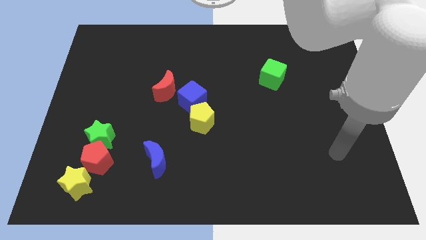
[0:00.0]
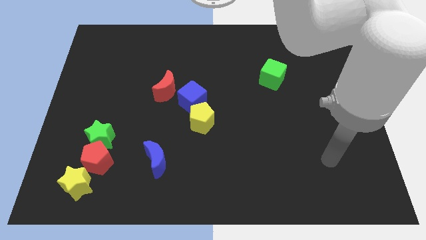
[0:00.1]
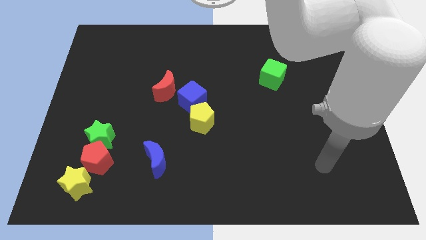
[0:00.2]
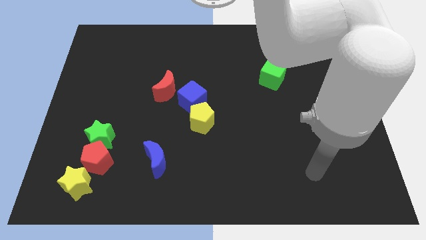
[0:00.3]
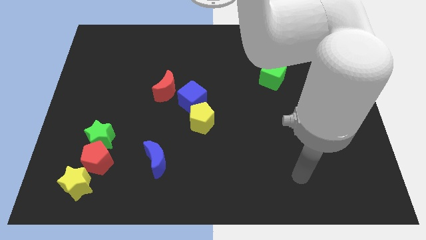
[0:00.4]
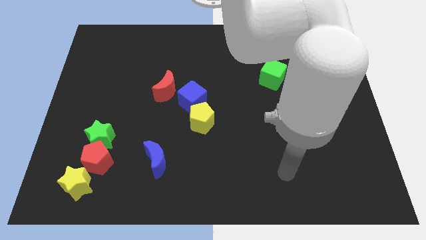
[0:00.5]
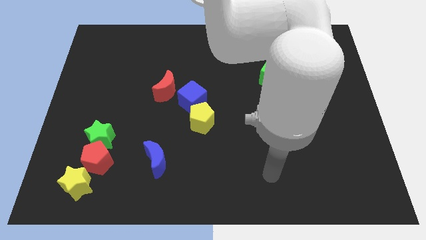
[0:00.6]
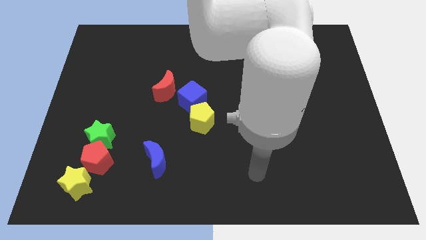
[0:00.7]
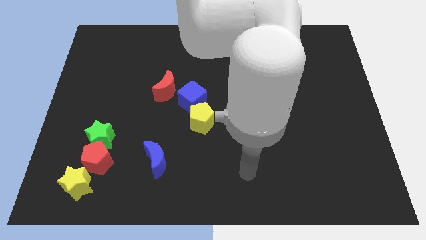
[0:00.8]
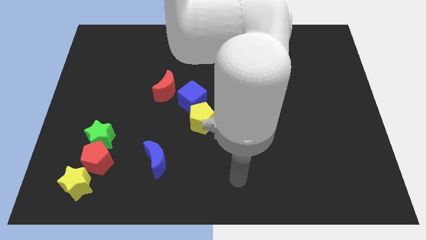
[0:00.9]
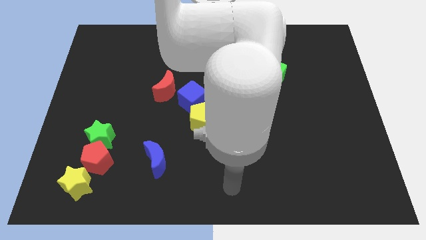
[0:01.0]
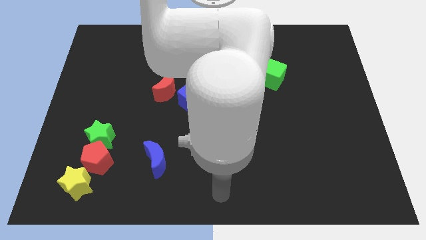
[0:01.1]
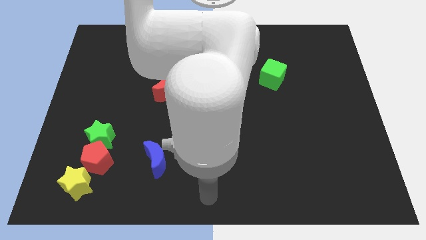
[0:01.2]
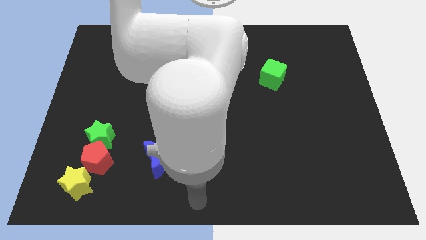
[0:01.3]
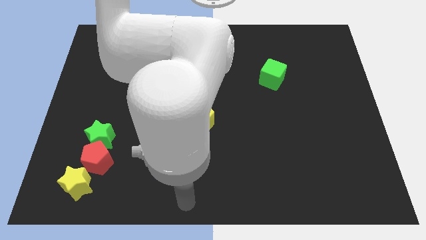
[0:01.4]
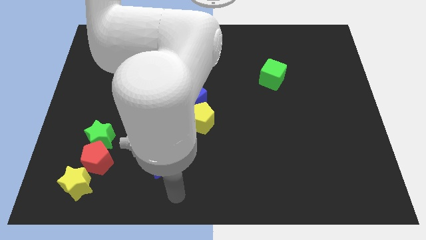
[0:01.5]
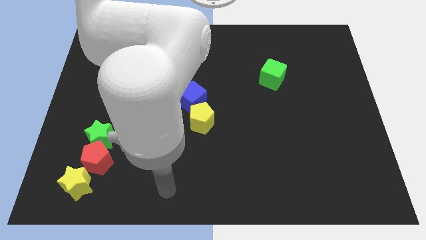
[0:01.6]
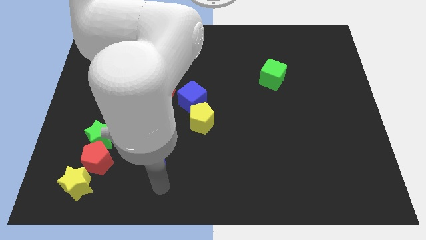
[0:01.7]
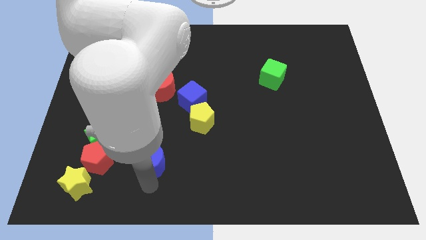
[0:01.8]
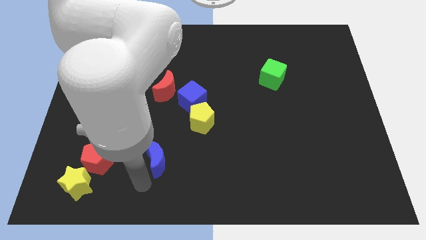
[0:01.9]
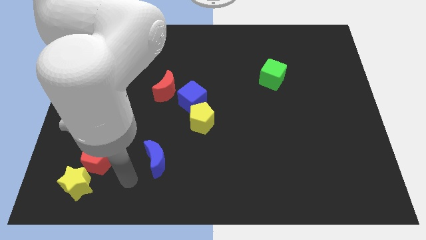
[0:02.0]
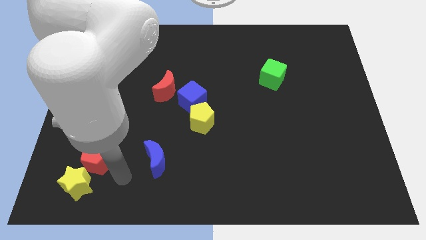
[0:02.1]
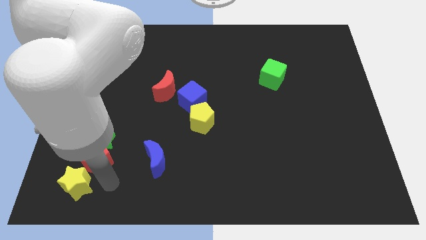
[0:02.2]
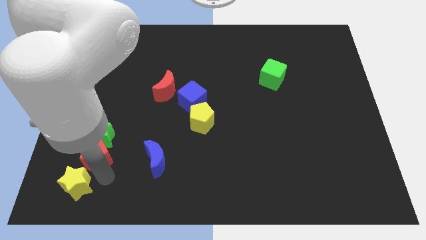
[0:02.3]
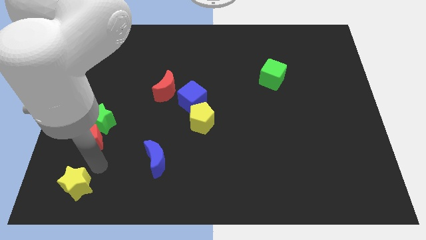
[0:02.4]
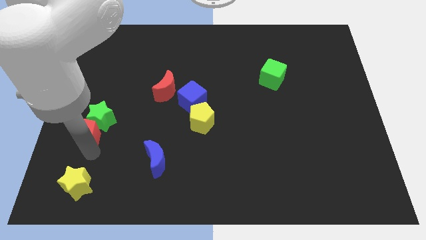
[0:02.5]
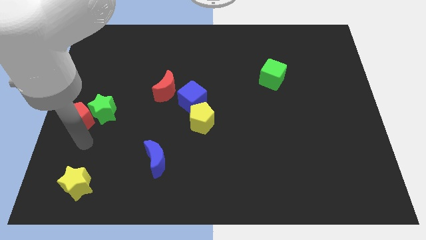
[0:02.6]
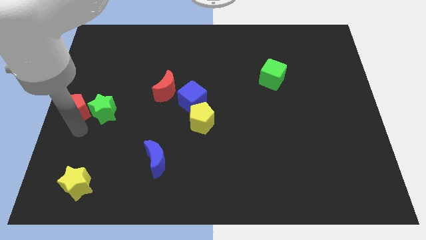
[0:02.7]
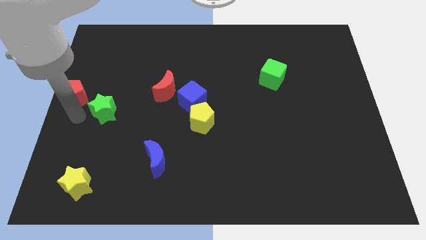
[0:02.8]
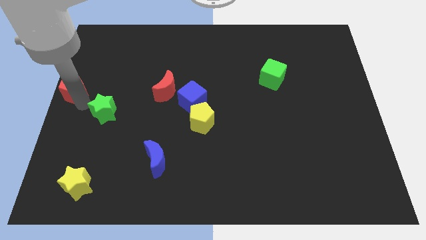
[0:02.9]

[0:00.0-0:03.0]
pull the green star apart from the red pentagon

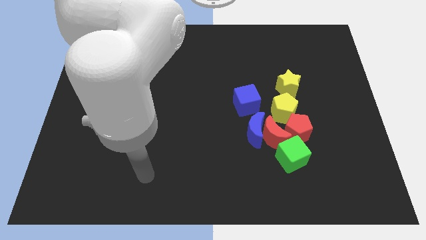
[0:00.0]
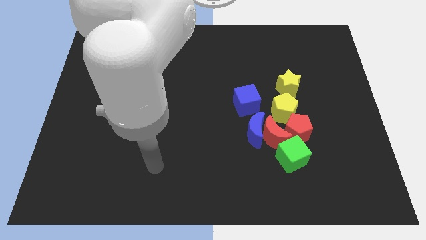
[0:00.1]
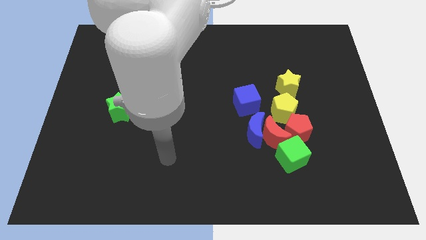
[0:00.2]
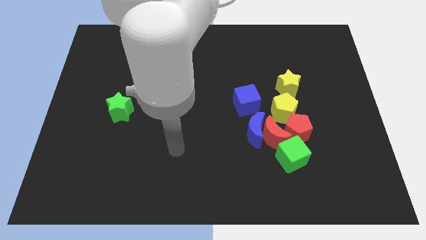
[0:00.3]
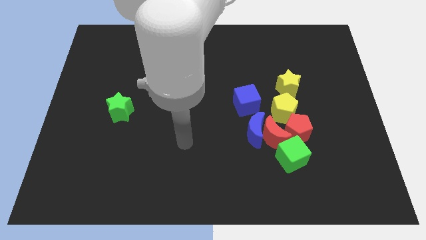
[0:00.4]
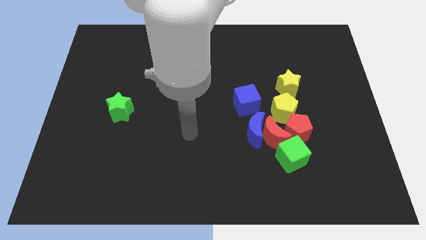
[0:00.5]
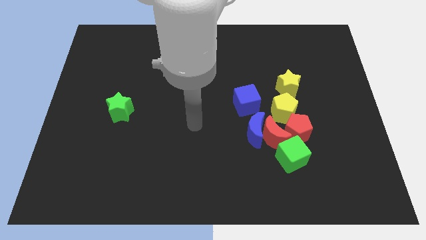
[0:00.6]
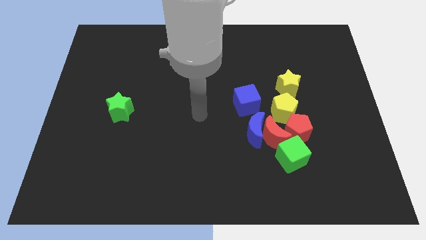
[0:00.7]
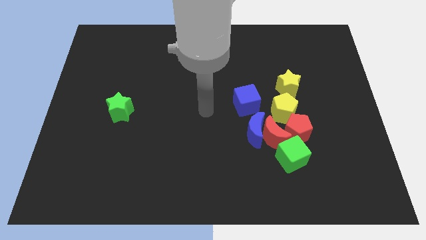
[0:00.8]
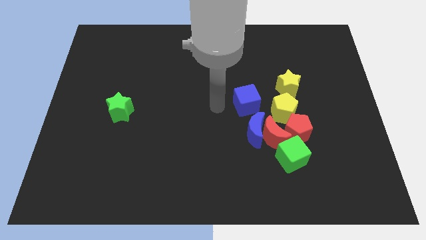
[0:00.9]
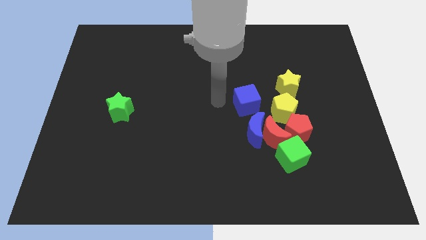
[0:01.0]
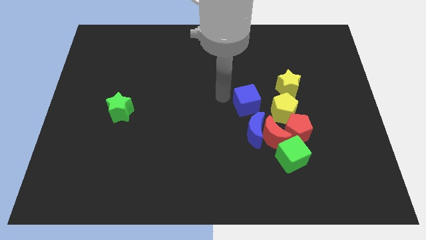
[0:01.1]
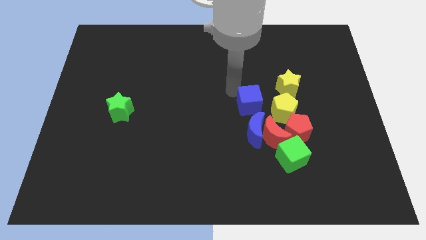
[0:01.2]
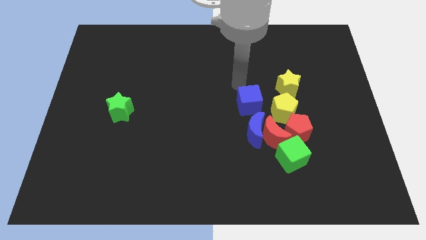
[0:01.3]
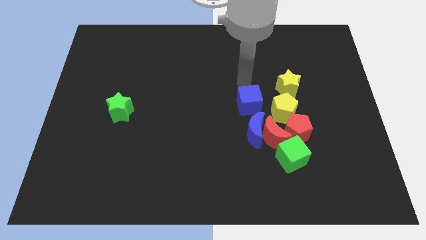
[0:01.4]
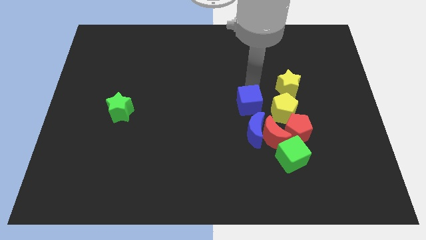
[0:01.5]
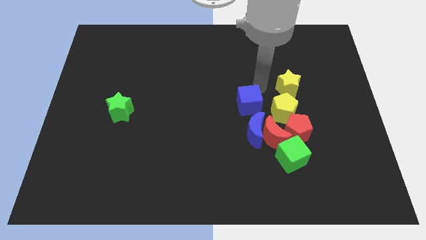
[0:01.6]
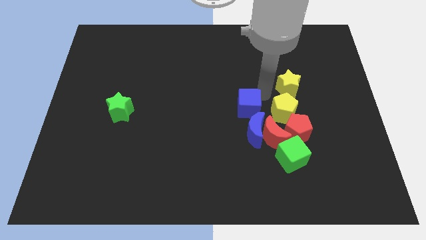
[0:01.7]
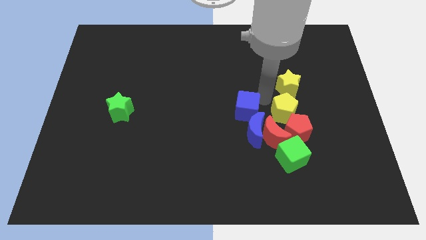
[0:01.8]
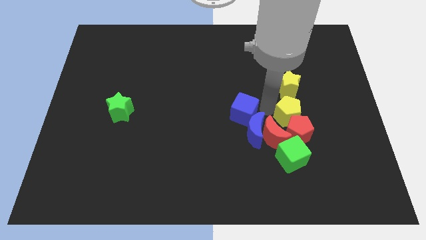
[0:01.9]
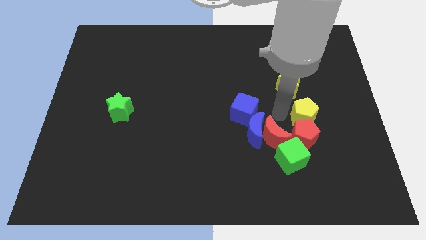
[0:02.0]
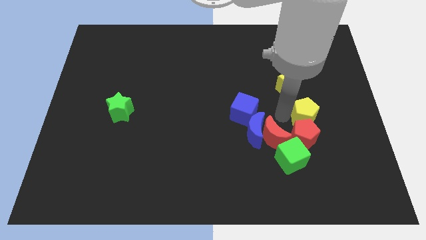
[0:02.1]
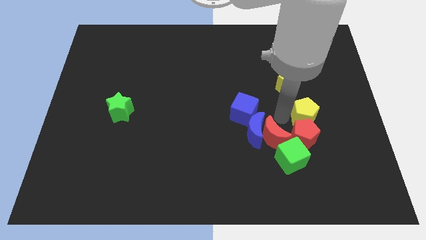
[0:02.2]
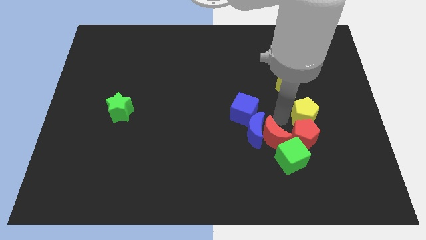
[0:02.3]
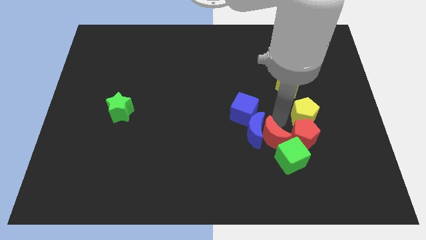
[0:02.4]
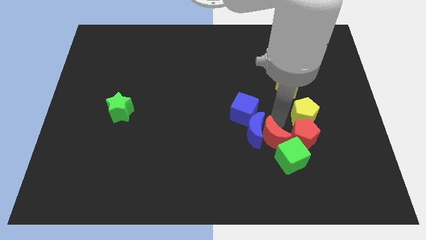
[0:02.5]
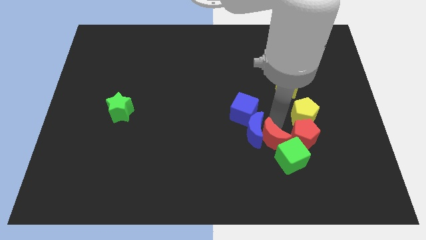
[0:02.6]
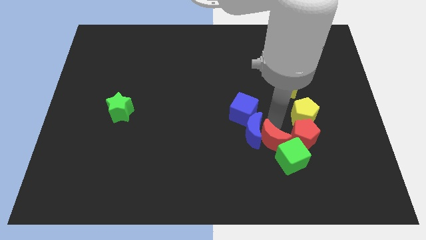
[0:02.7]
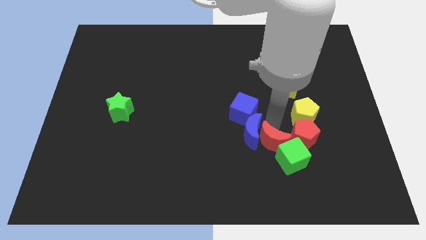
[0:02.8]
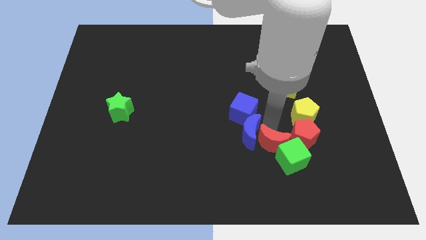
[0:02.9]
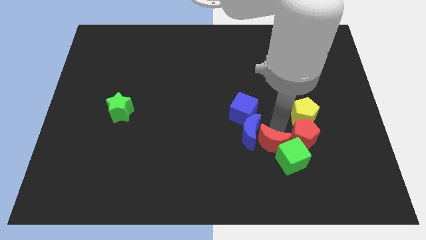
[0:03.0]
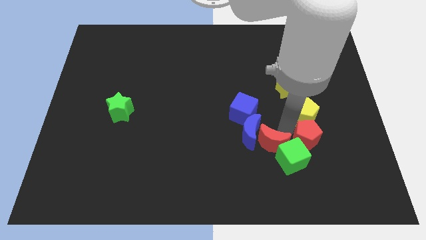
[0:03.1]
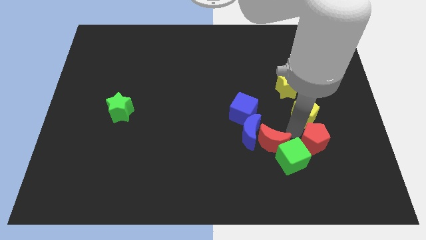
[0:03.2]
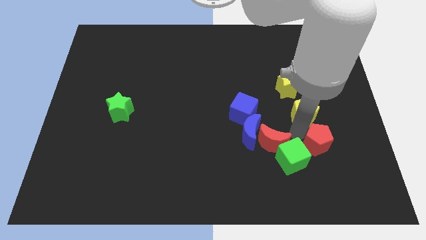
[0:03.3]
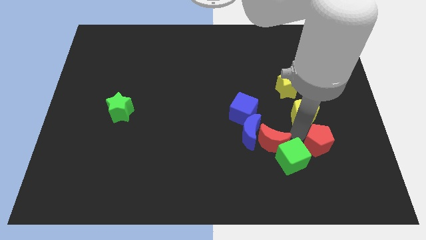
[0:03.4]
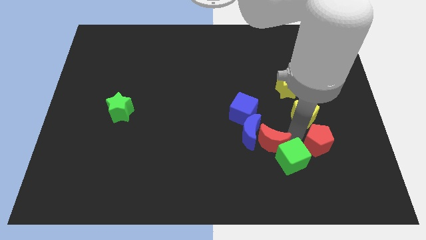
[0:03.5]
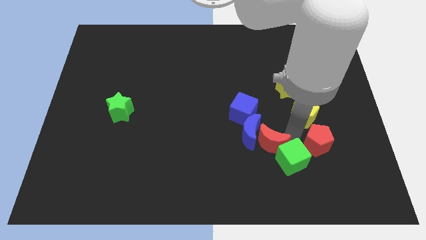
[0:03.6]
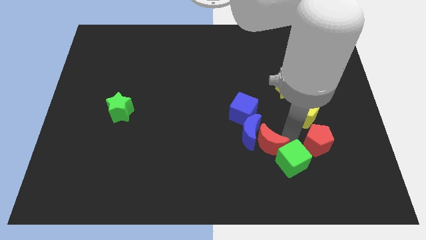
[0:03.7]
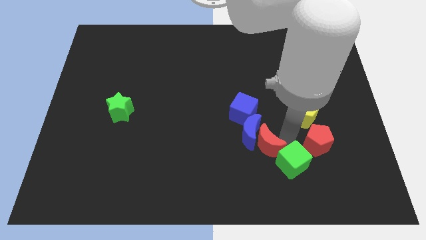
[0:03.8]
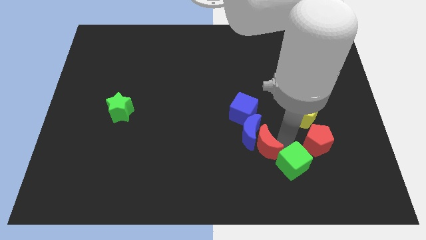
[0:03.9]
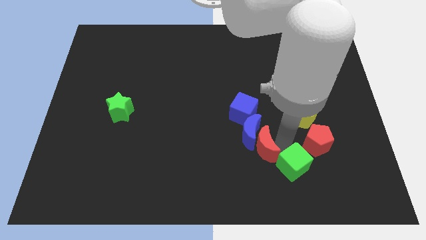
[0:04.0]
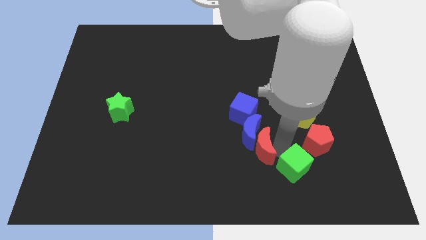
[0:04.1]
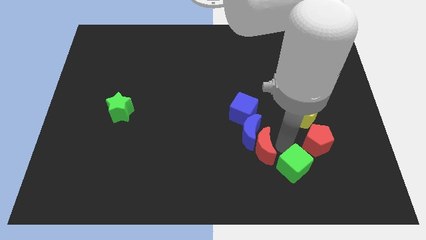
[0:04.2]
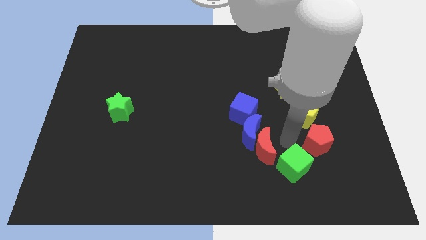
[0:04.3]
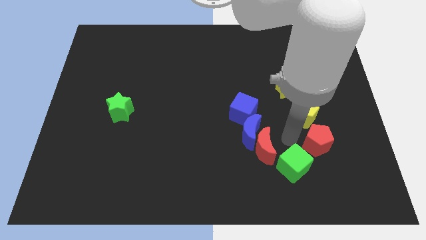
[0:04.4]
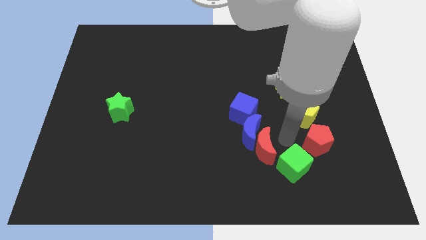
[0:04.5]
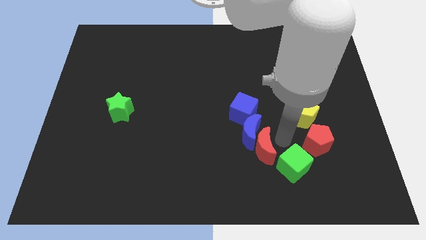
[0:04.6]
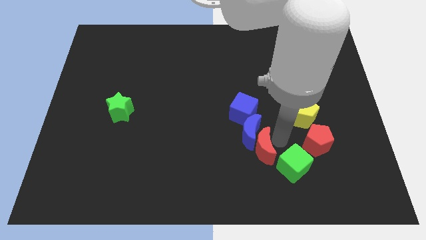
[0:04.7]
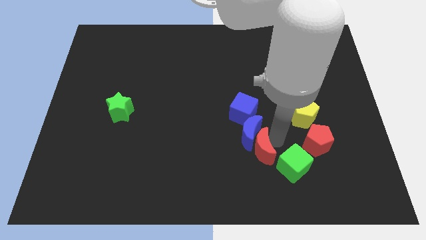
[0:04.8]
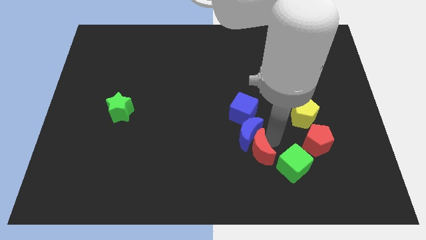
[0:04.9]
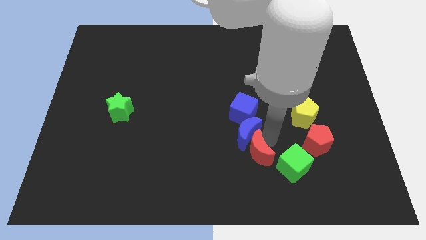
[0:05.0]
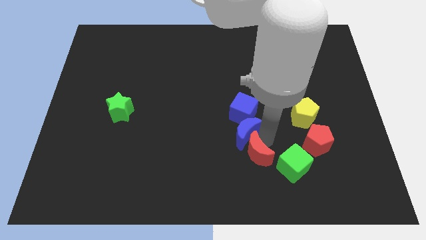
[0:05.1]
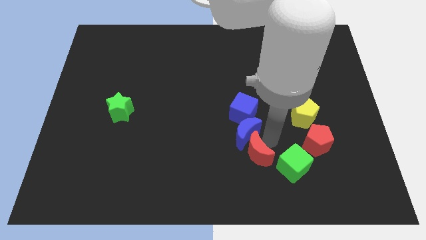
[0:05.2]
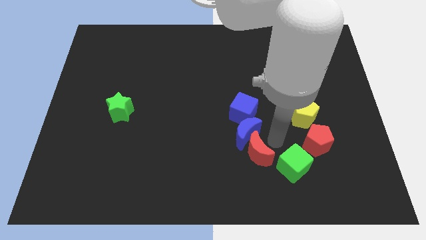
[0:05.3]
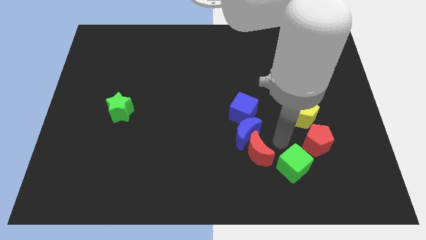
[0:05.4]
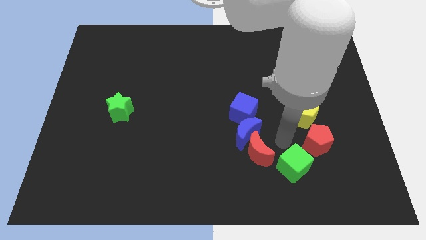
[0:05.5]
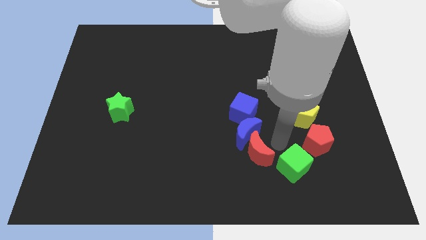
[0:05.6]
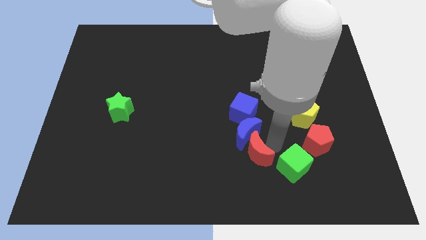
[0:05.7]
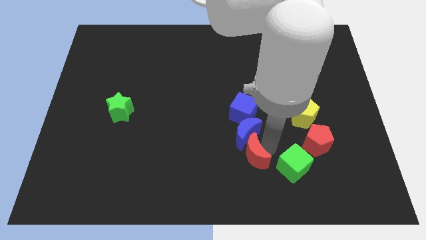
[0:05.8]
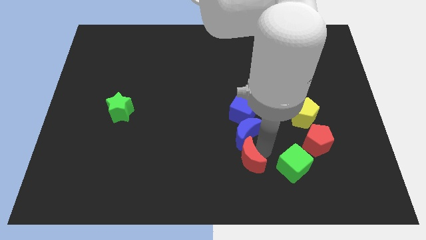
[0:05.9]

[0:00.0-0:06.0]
pull the red moon apart from the clump

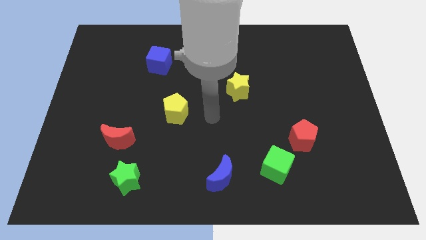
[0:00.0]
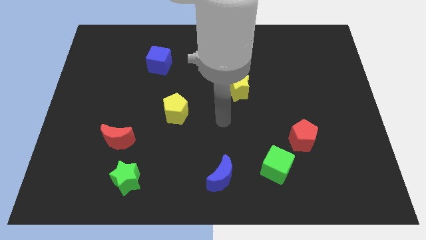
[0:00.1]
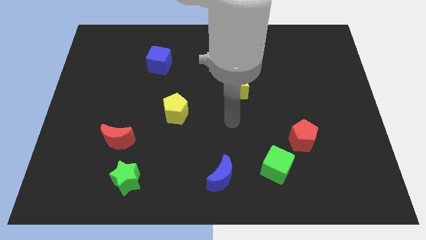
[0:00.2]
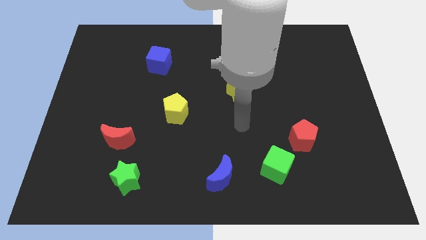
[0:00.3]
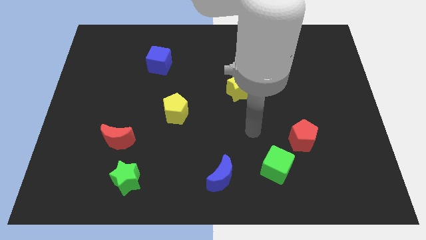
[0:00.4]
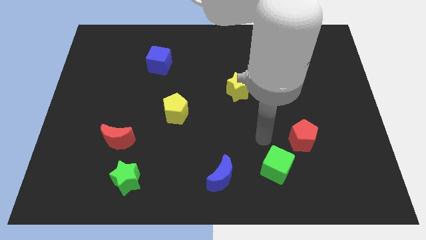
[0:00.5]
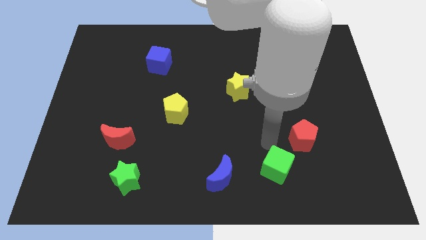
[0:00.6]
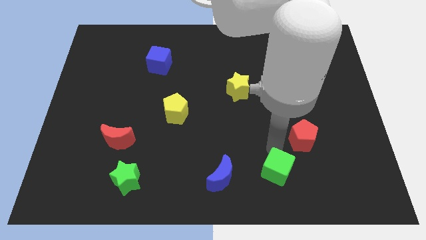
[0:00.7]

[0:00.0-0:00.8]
pull the red pentagon apart from the green cube
